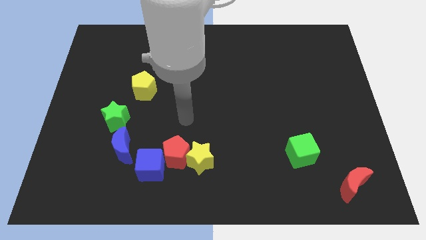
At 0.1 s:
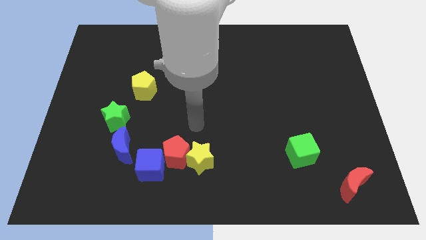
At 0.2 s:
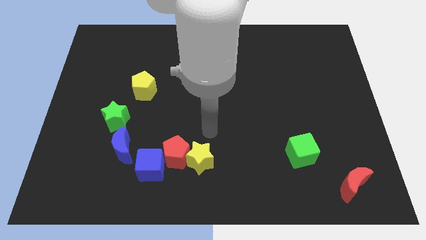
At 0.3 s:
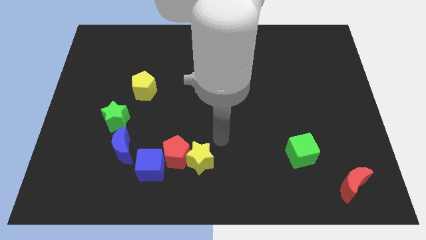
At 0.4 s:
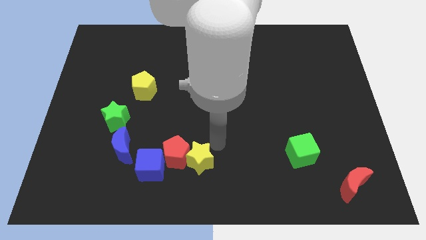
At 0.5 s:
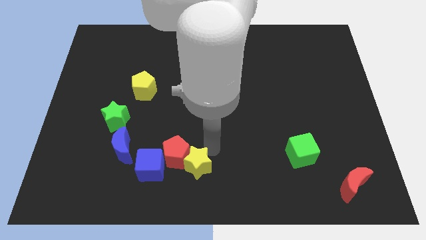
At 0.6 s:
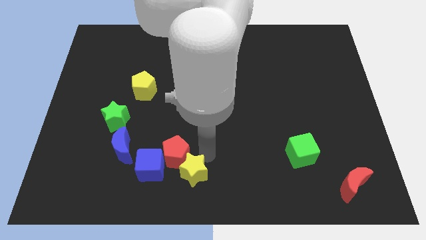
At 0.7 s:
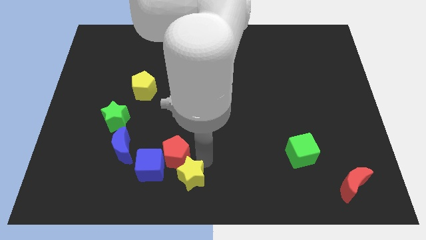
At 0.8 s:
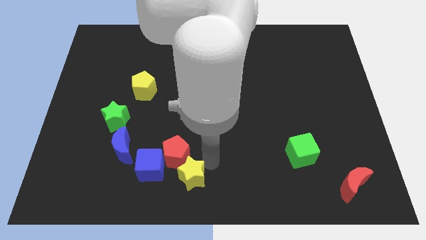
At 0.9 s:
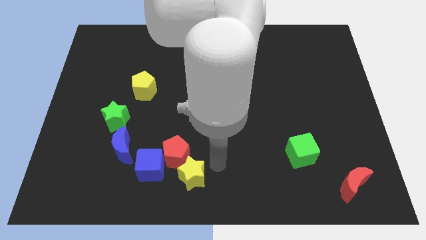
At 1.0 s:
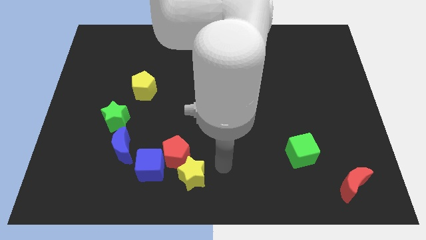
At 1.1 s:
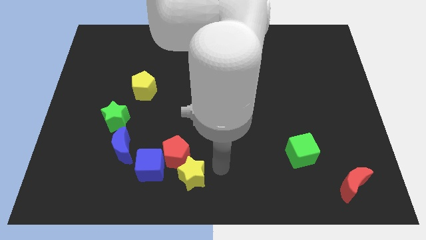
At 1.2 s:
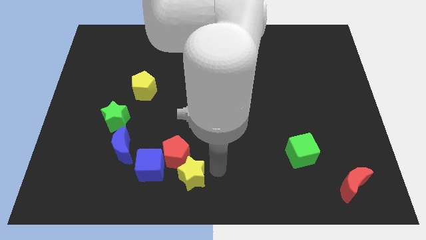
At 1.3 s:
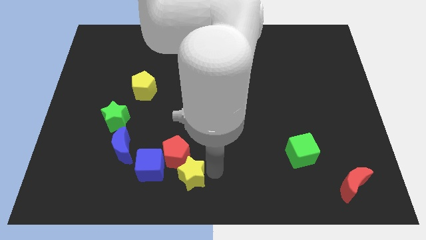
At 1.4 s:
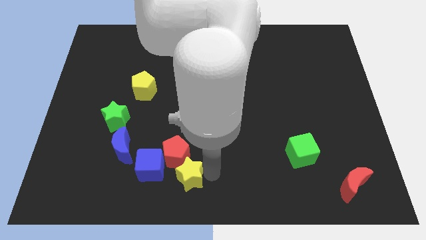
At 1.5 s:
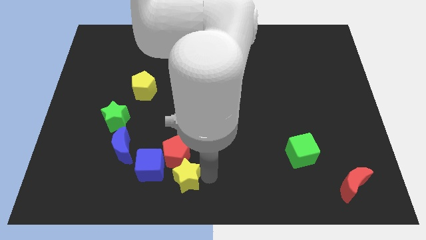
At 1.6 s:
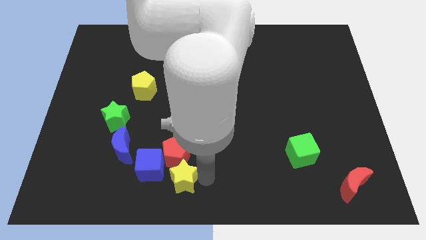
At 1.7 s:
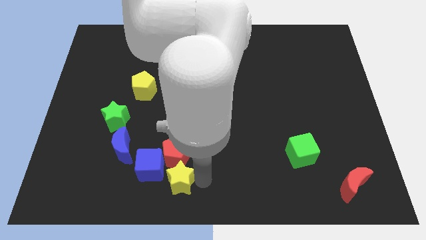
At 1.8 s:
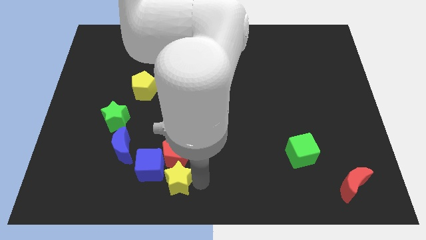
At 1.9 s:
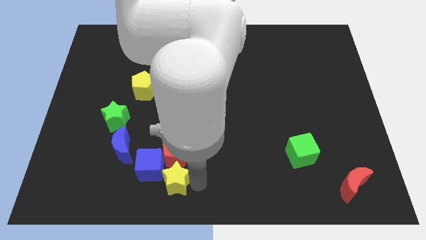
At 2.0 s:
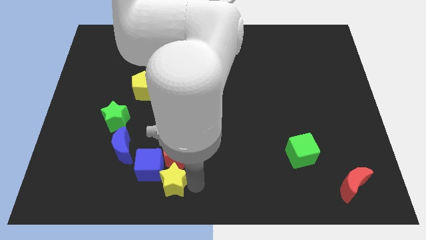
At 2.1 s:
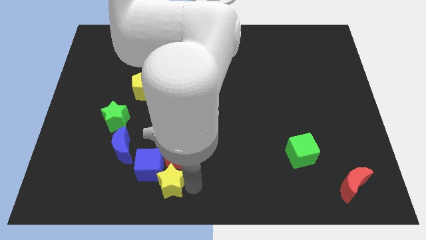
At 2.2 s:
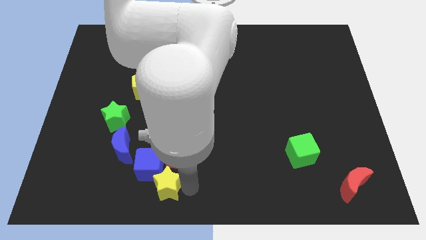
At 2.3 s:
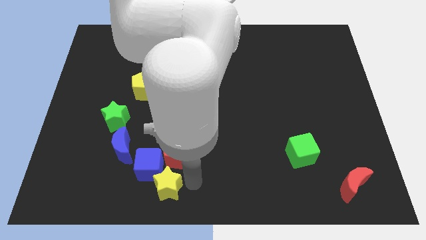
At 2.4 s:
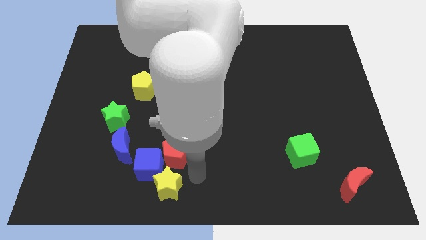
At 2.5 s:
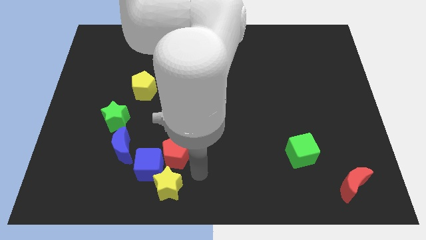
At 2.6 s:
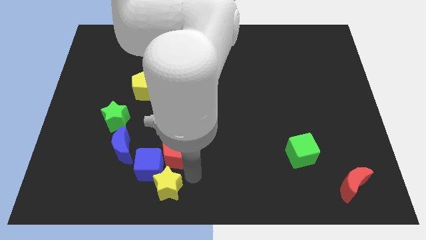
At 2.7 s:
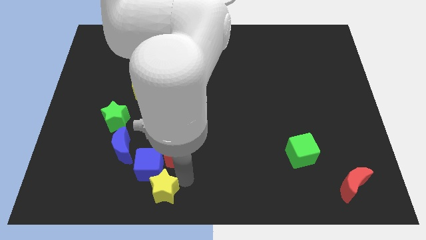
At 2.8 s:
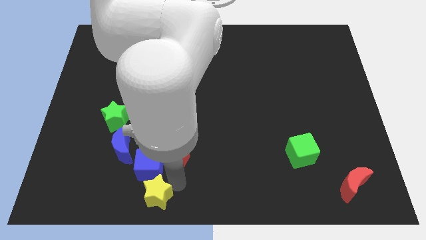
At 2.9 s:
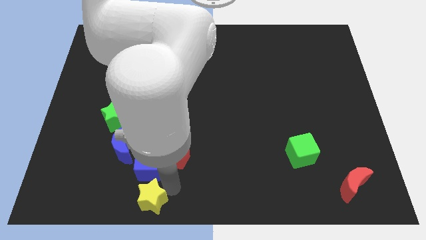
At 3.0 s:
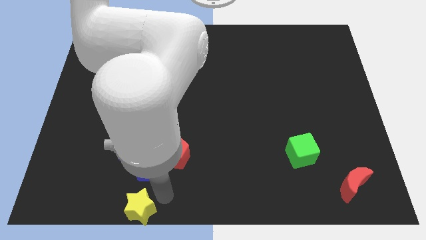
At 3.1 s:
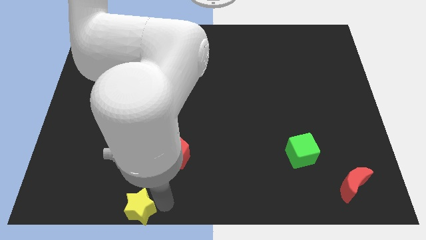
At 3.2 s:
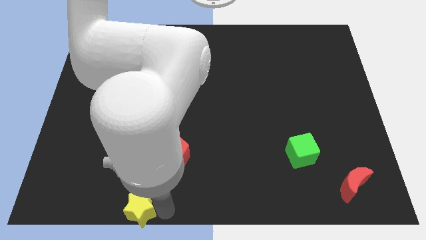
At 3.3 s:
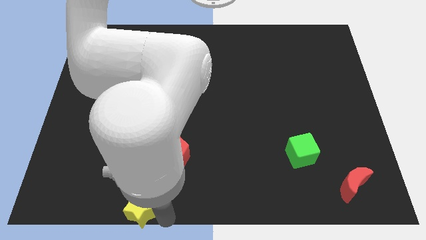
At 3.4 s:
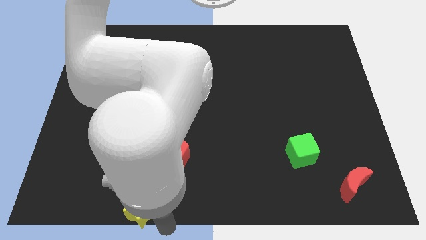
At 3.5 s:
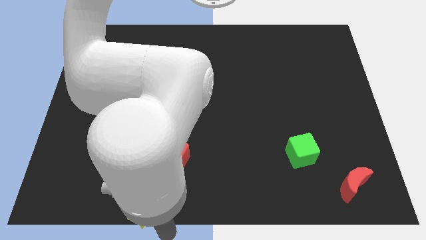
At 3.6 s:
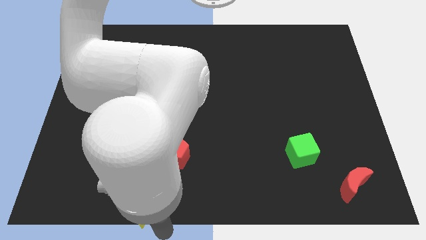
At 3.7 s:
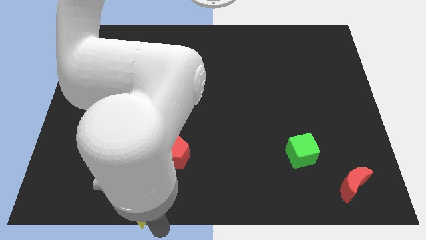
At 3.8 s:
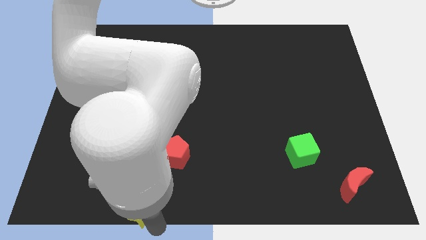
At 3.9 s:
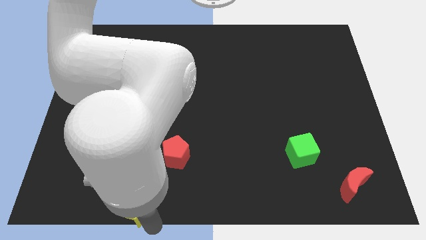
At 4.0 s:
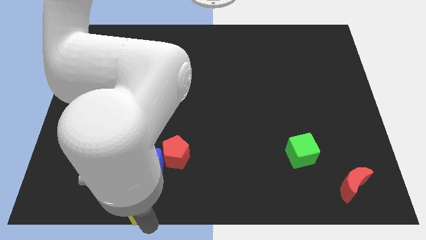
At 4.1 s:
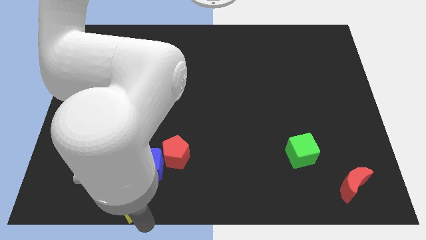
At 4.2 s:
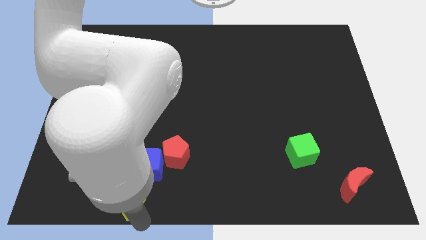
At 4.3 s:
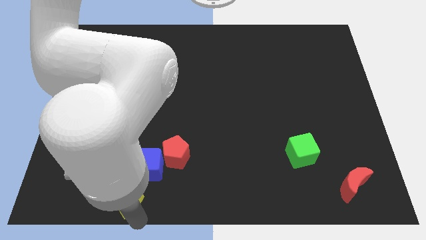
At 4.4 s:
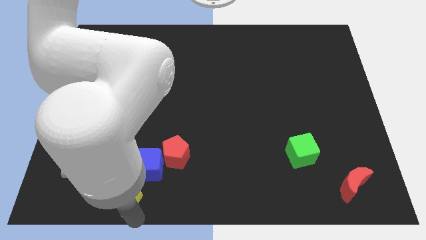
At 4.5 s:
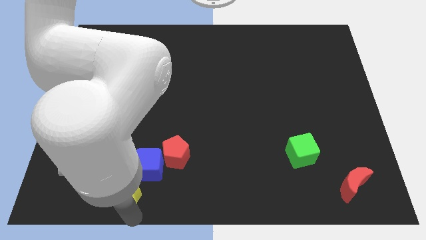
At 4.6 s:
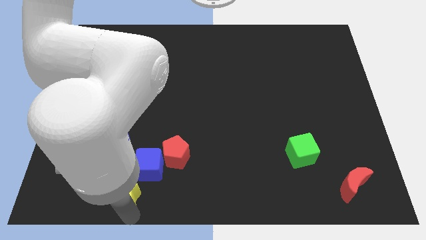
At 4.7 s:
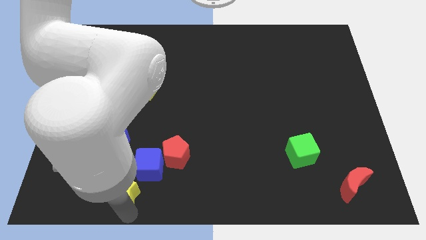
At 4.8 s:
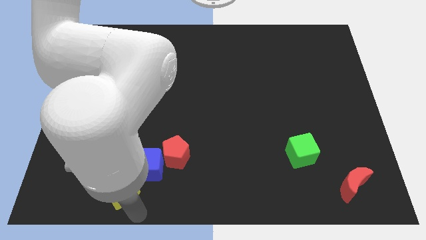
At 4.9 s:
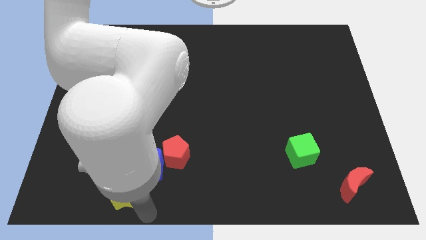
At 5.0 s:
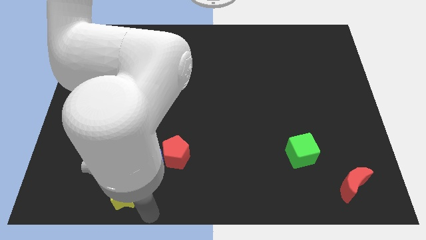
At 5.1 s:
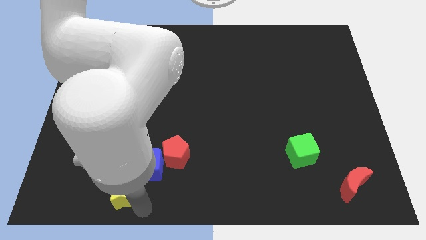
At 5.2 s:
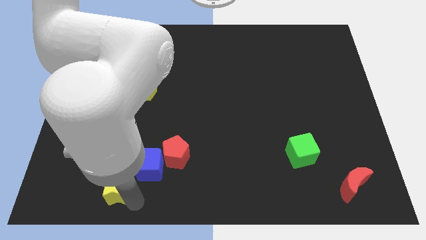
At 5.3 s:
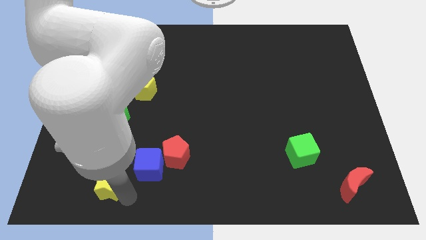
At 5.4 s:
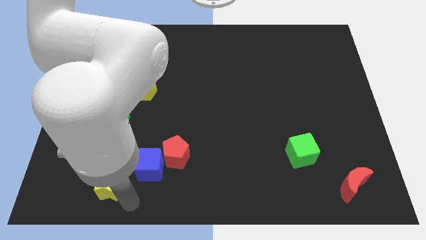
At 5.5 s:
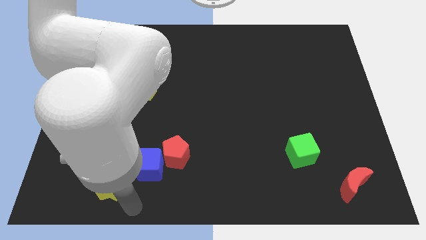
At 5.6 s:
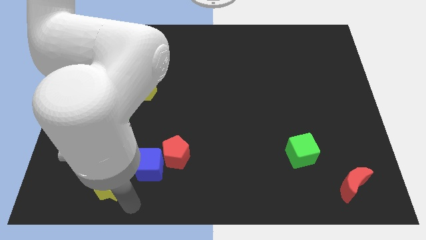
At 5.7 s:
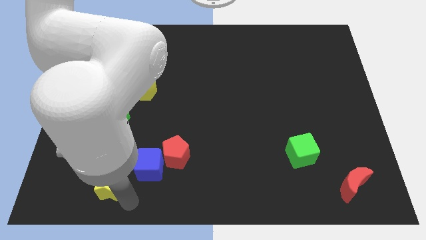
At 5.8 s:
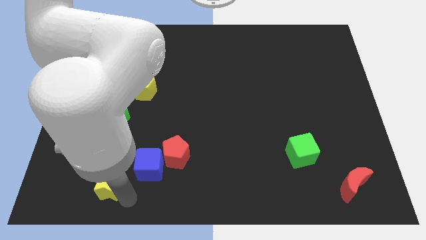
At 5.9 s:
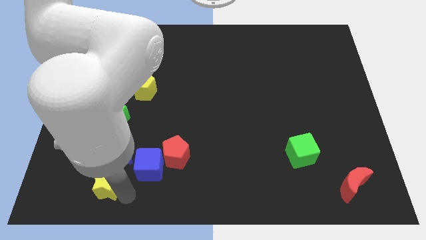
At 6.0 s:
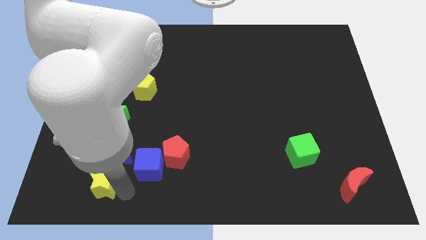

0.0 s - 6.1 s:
push the yellow star diagonally down and to the left of the blue moon
